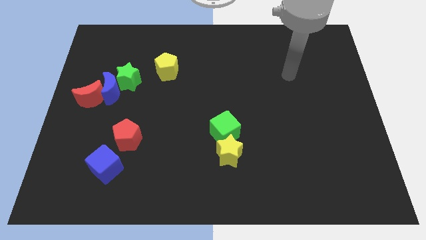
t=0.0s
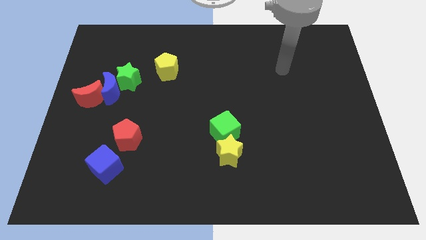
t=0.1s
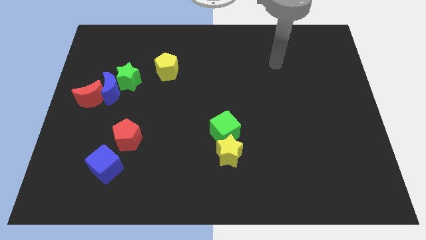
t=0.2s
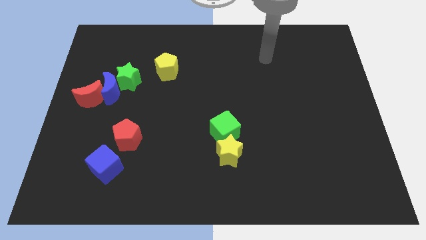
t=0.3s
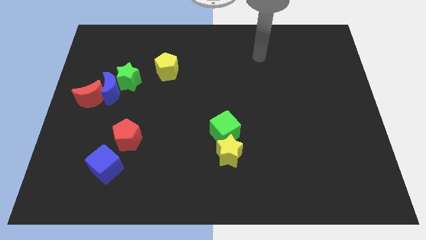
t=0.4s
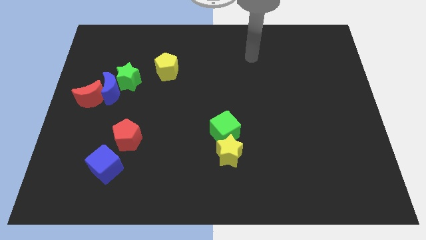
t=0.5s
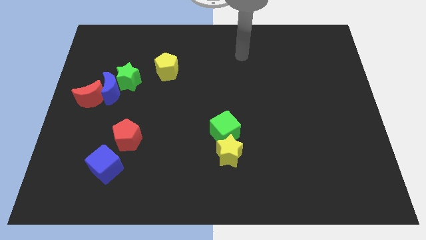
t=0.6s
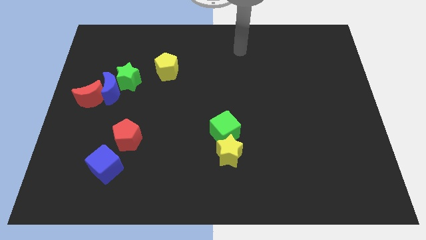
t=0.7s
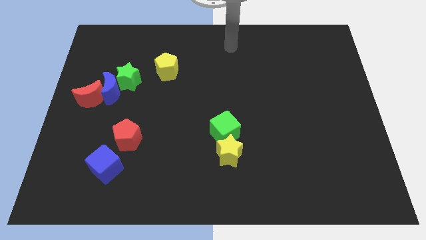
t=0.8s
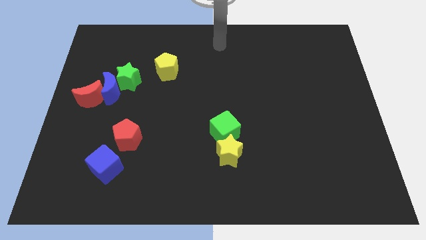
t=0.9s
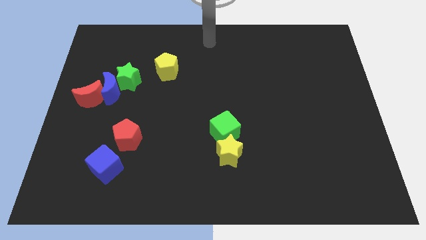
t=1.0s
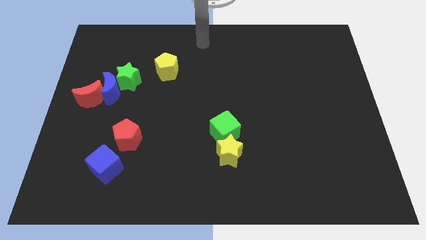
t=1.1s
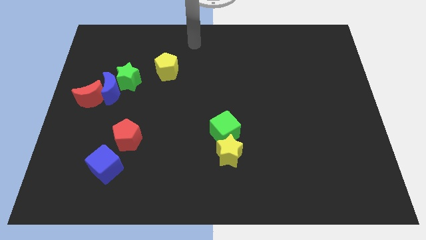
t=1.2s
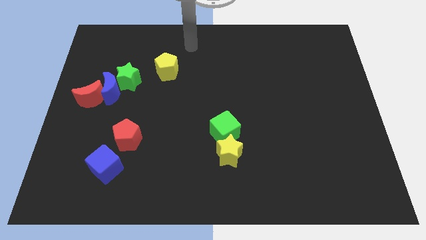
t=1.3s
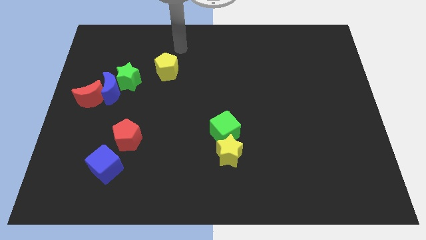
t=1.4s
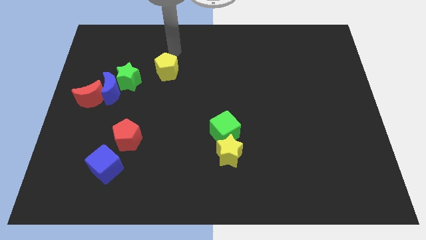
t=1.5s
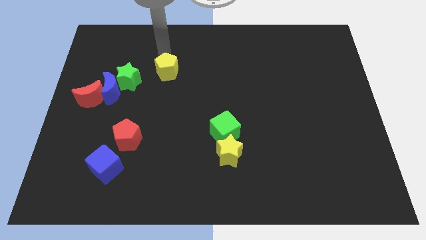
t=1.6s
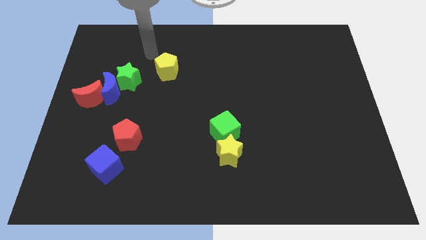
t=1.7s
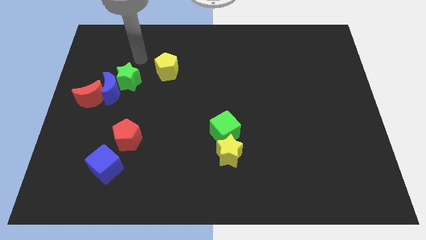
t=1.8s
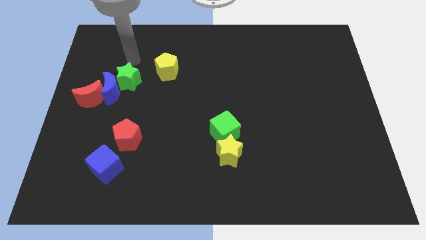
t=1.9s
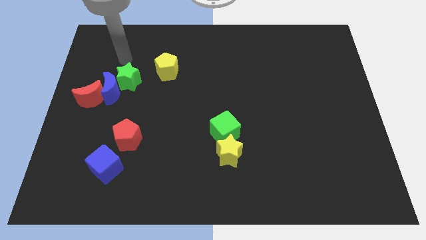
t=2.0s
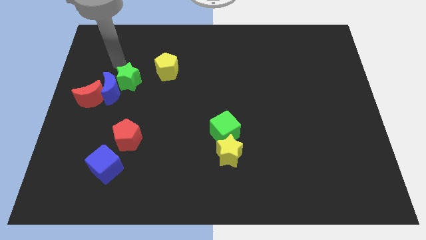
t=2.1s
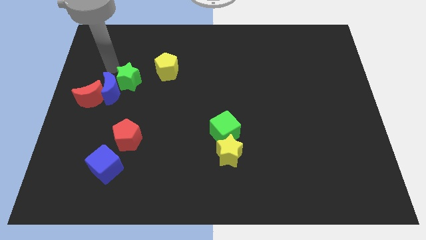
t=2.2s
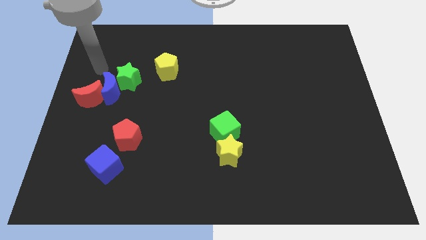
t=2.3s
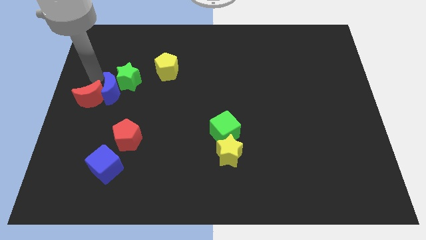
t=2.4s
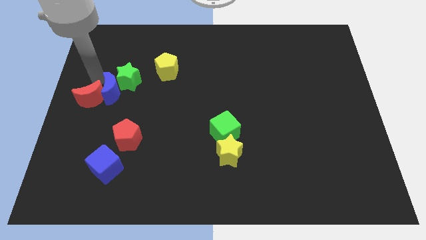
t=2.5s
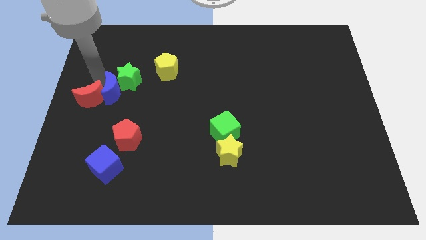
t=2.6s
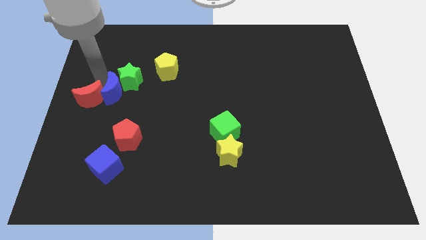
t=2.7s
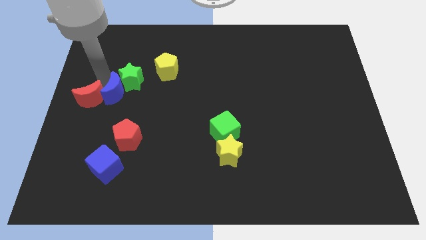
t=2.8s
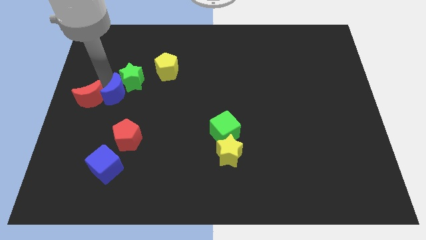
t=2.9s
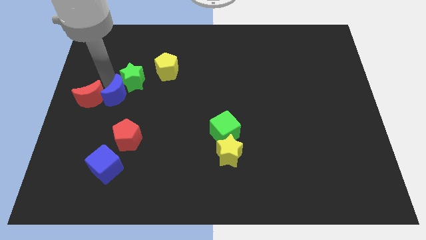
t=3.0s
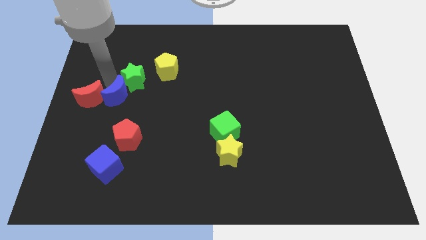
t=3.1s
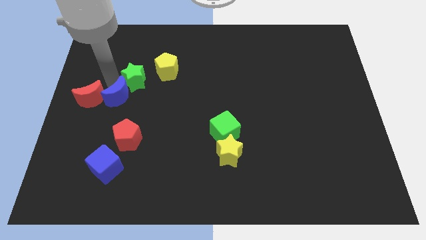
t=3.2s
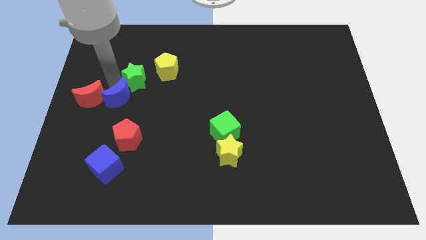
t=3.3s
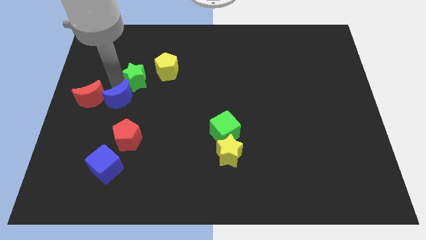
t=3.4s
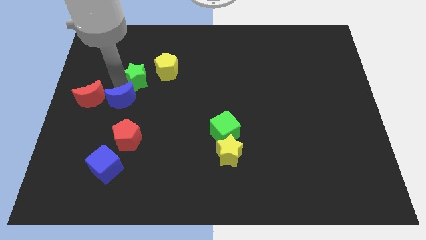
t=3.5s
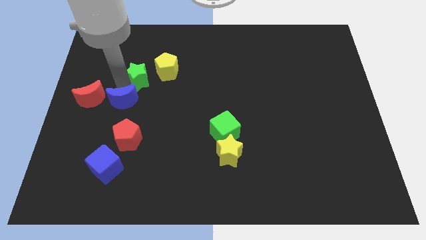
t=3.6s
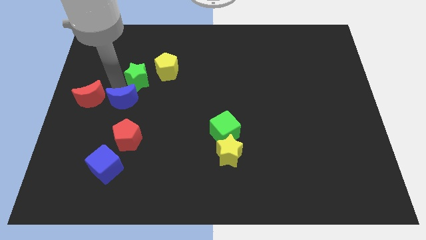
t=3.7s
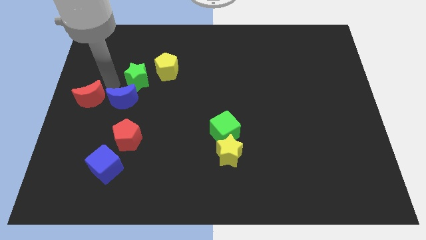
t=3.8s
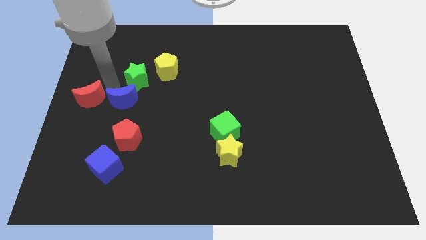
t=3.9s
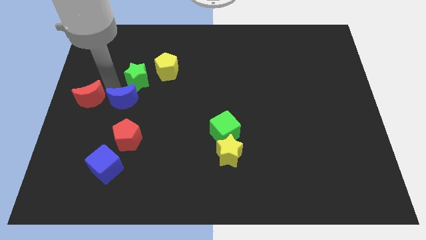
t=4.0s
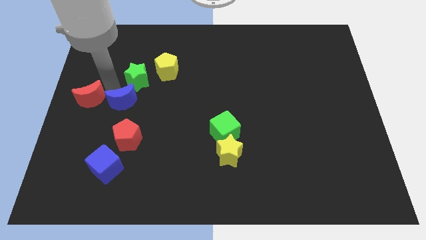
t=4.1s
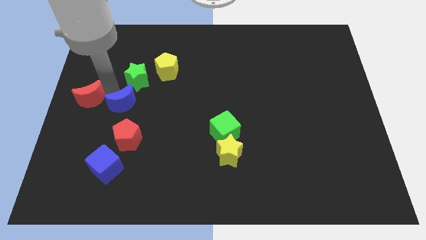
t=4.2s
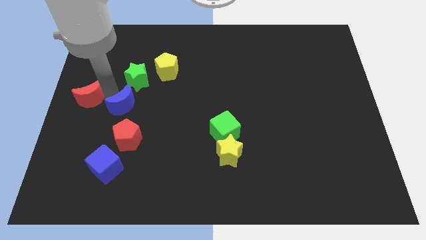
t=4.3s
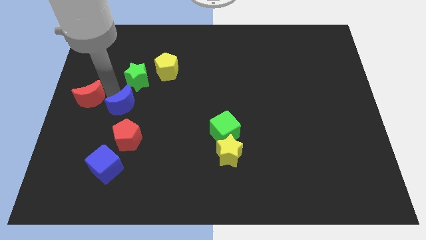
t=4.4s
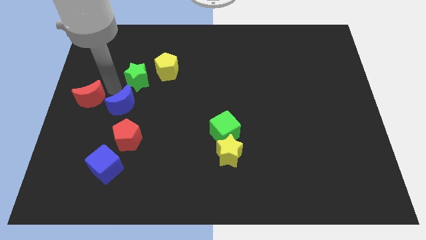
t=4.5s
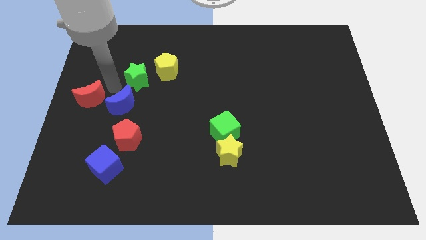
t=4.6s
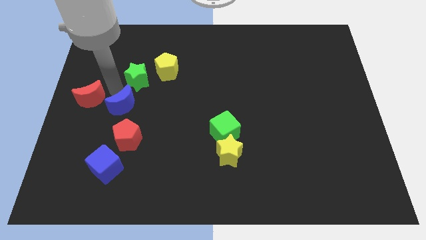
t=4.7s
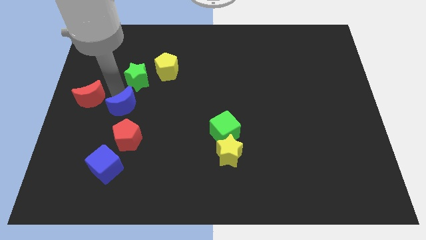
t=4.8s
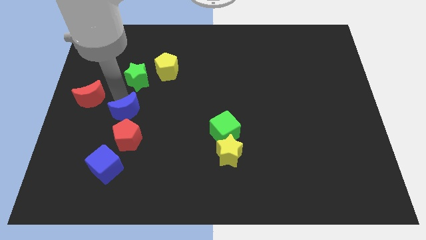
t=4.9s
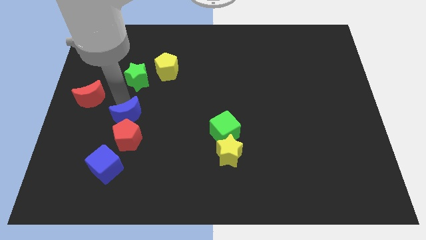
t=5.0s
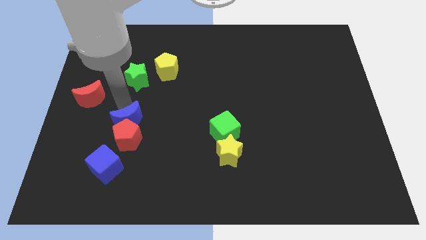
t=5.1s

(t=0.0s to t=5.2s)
pull the blue moon apart from the green star and red moon

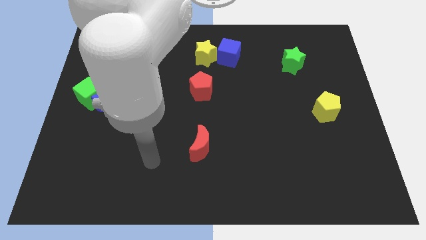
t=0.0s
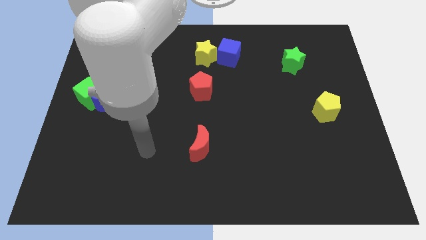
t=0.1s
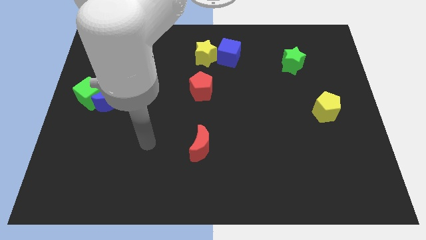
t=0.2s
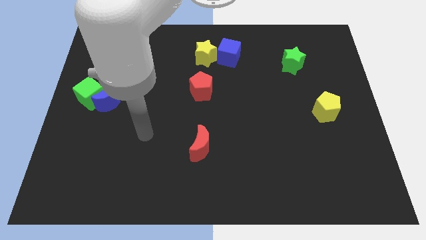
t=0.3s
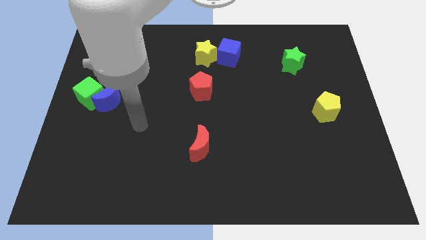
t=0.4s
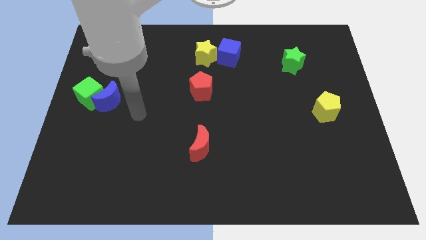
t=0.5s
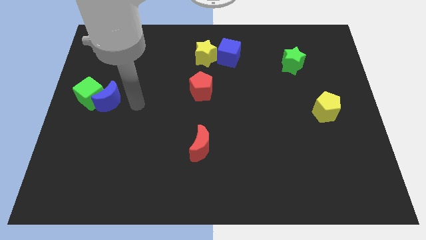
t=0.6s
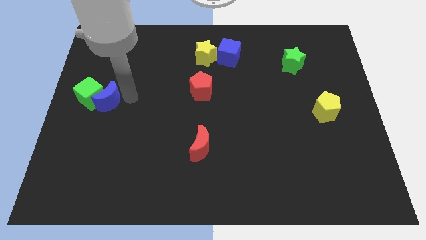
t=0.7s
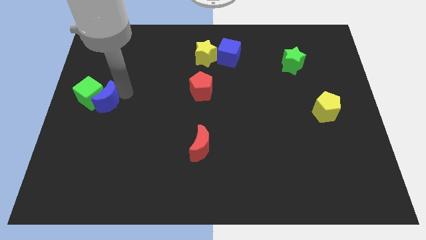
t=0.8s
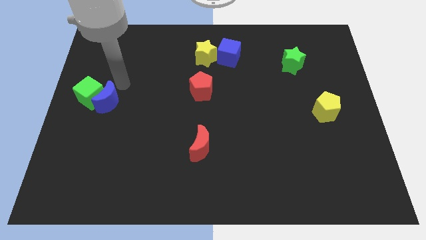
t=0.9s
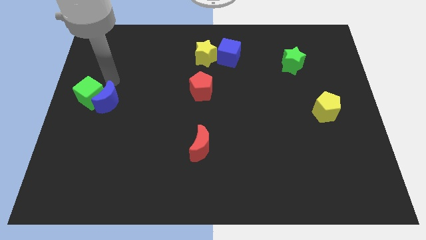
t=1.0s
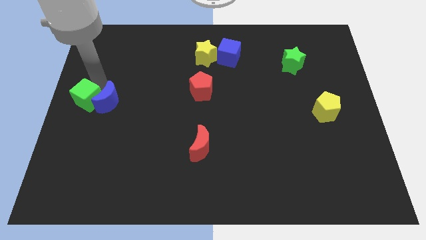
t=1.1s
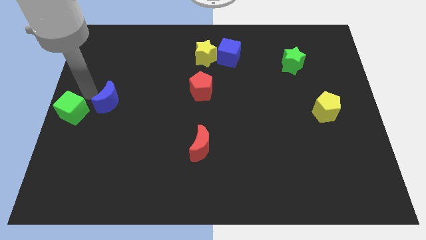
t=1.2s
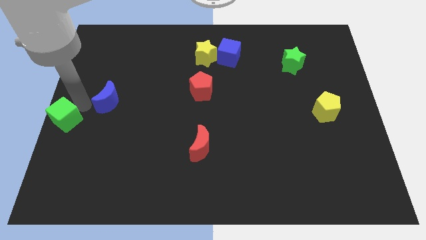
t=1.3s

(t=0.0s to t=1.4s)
separate the blue moon from the green cube

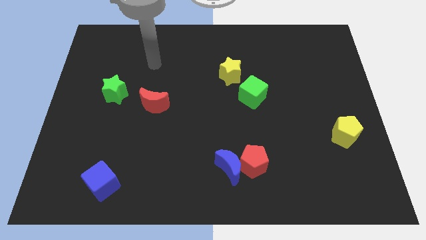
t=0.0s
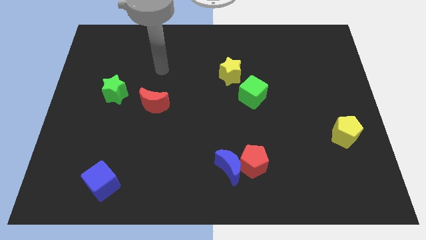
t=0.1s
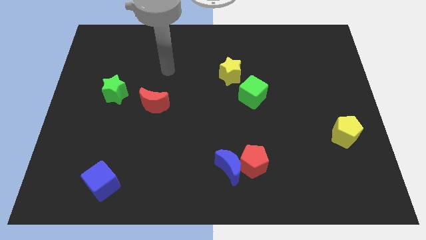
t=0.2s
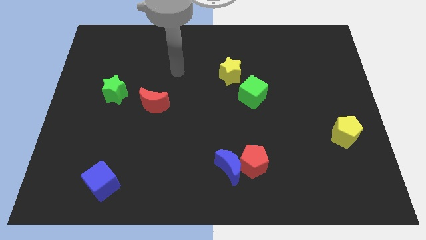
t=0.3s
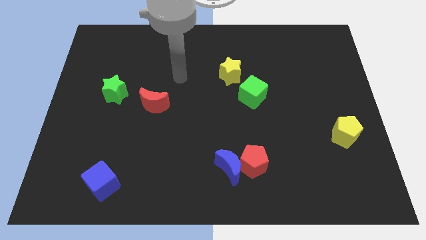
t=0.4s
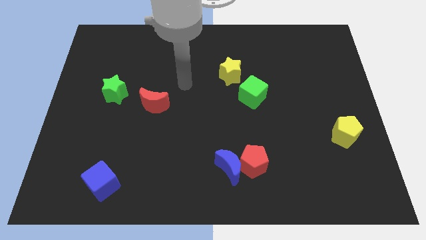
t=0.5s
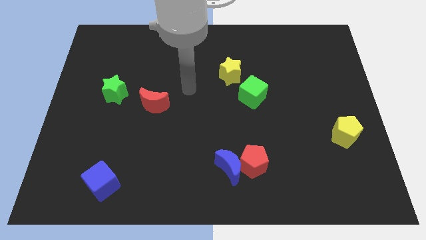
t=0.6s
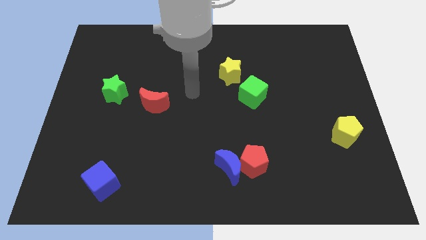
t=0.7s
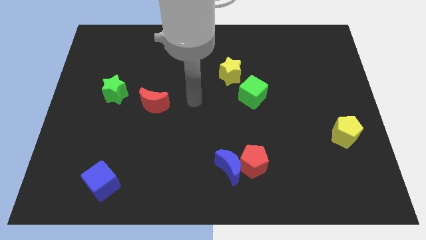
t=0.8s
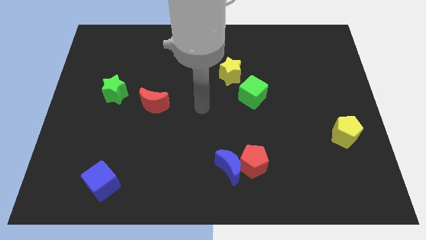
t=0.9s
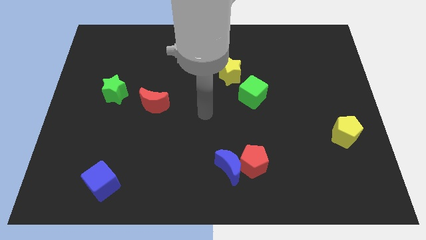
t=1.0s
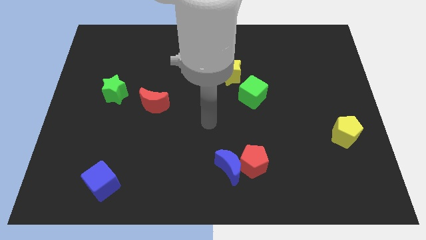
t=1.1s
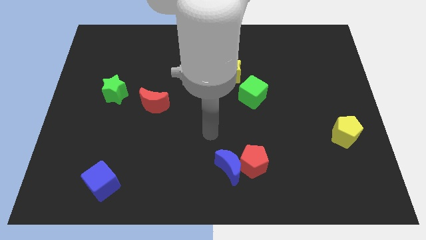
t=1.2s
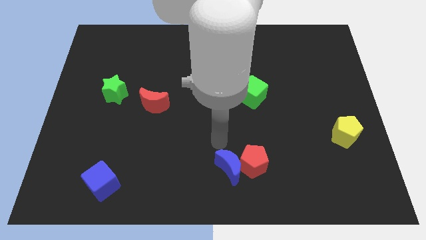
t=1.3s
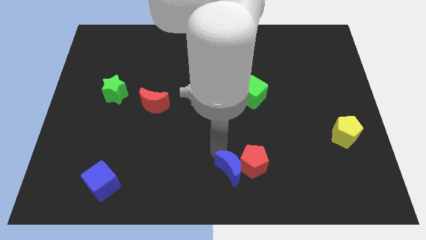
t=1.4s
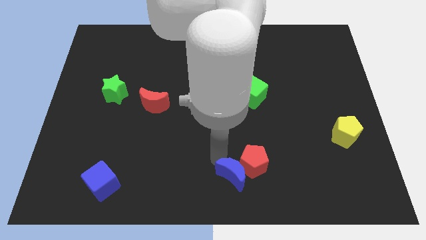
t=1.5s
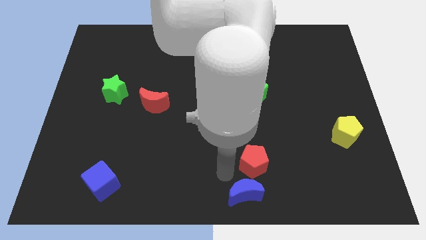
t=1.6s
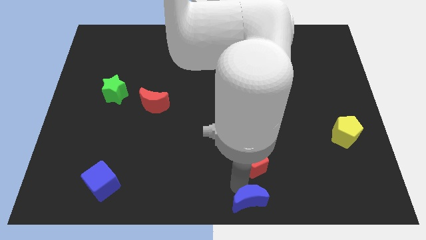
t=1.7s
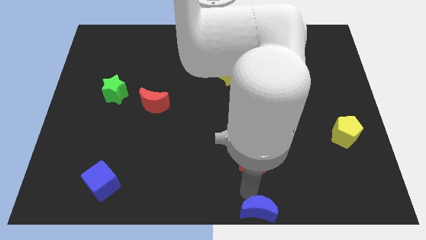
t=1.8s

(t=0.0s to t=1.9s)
move the red pentagon away from the blue moon

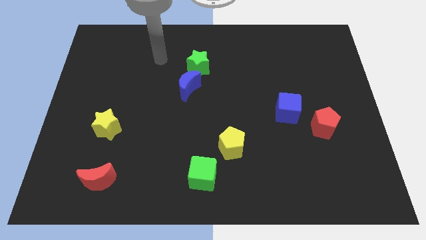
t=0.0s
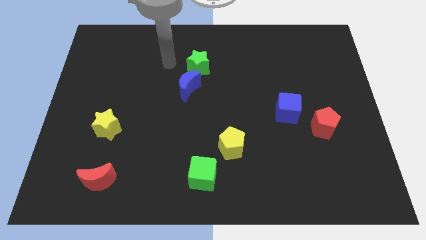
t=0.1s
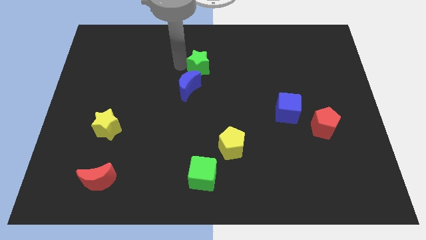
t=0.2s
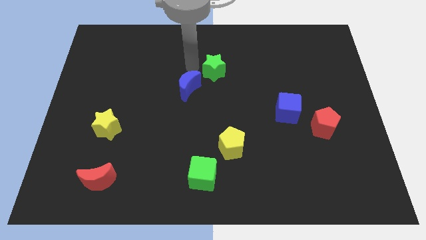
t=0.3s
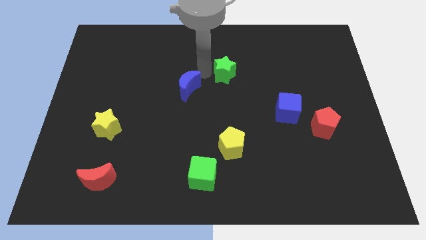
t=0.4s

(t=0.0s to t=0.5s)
pull the blue moon apart from the green star

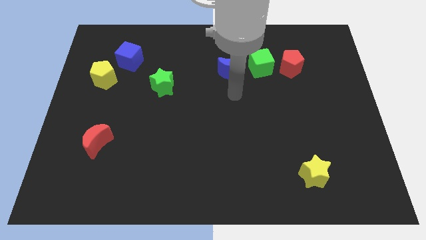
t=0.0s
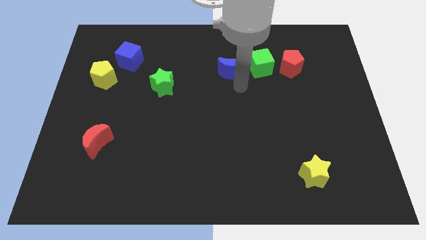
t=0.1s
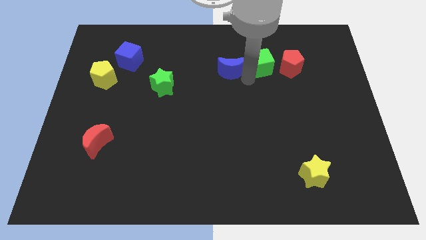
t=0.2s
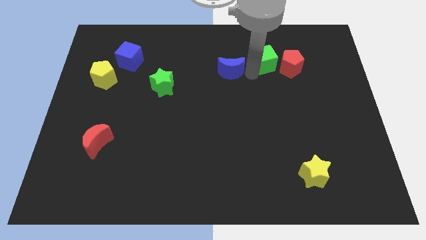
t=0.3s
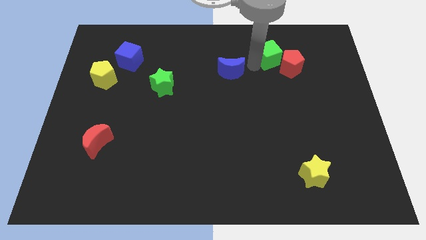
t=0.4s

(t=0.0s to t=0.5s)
move the blue moon away from the green cube
